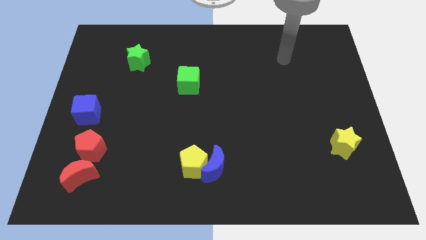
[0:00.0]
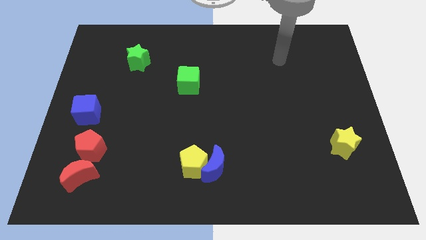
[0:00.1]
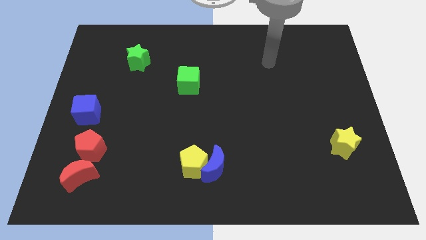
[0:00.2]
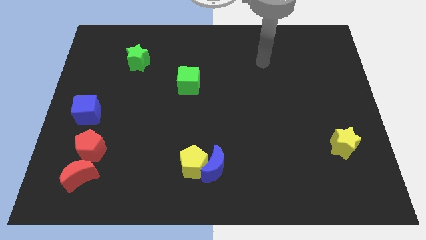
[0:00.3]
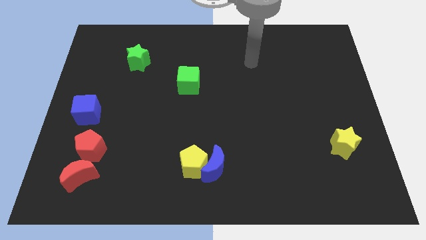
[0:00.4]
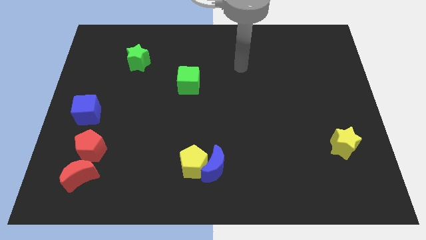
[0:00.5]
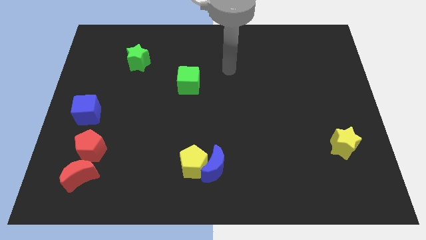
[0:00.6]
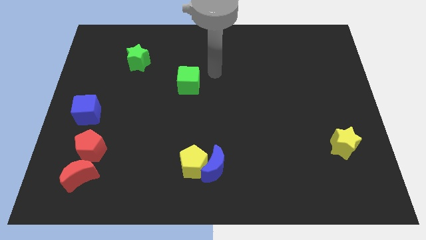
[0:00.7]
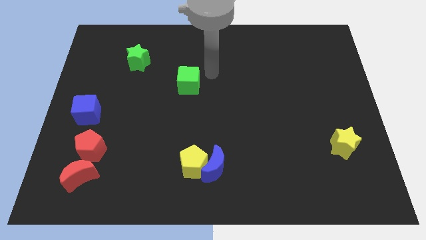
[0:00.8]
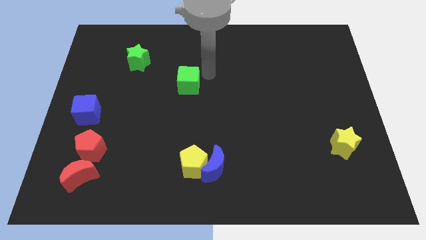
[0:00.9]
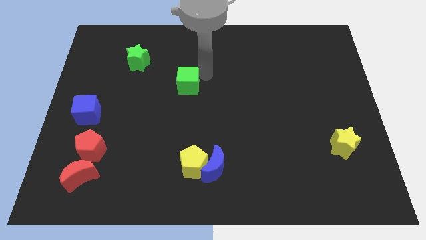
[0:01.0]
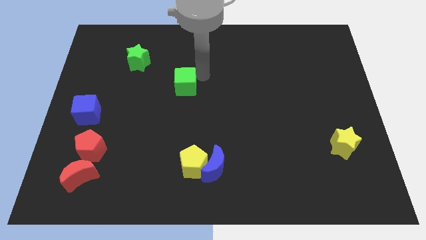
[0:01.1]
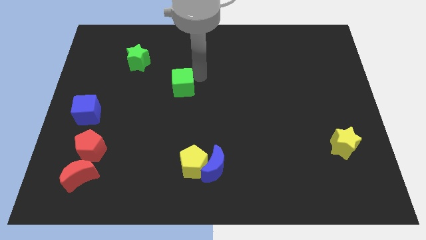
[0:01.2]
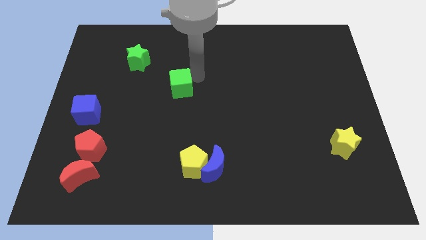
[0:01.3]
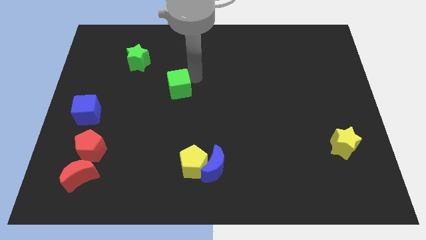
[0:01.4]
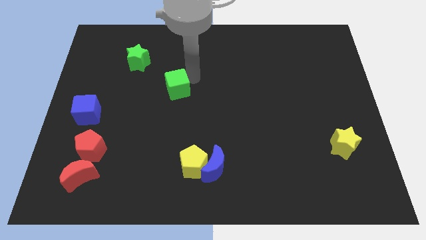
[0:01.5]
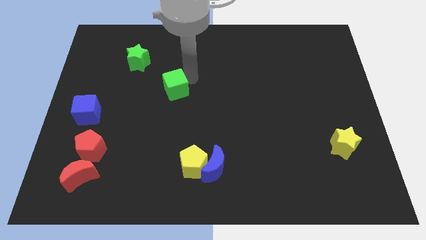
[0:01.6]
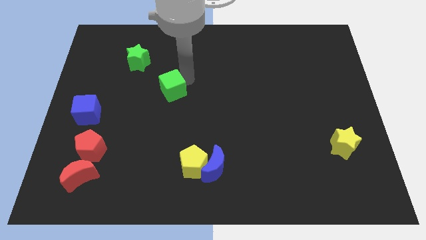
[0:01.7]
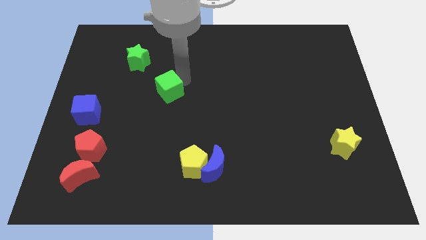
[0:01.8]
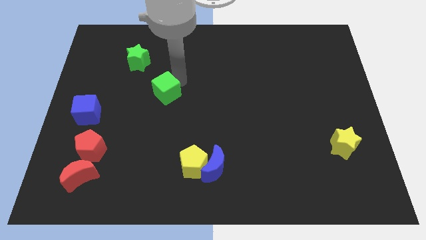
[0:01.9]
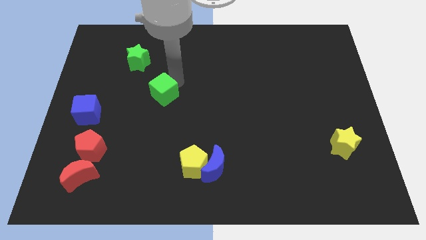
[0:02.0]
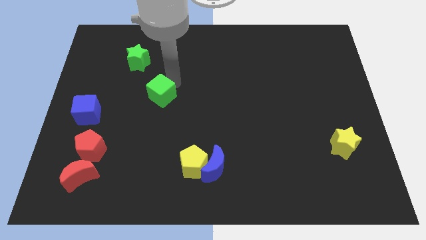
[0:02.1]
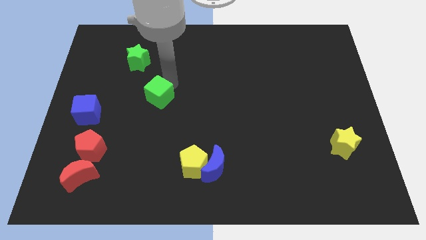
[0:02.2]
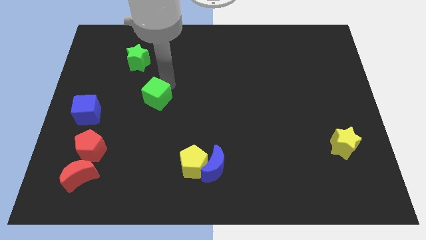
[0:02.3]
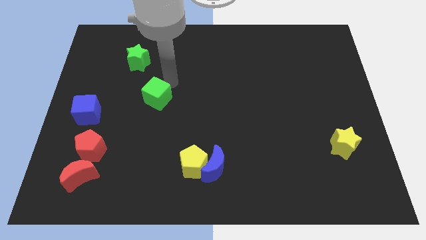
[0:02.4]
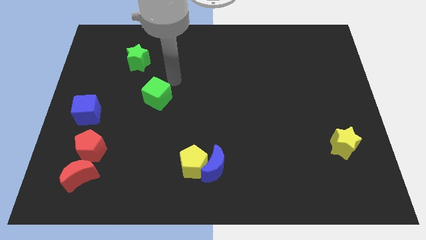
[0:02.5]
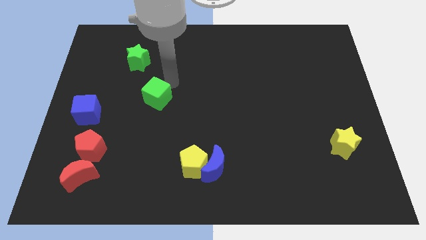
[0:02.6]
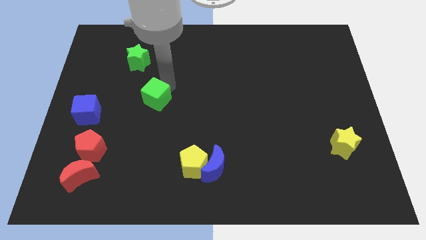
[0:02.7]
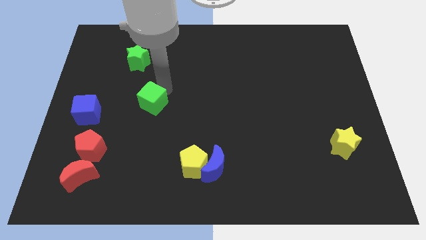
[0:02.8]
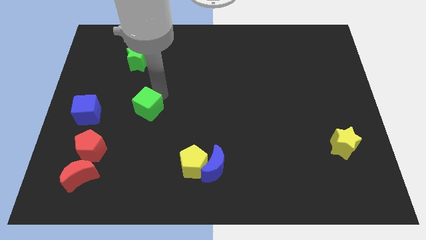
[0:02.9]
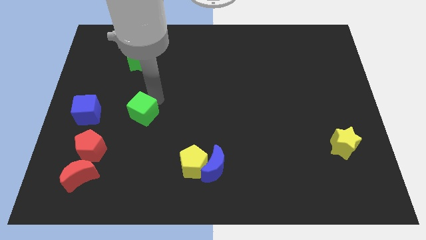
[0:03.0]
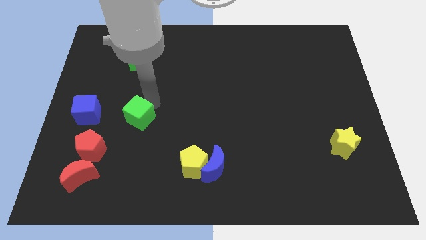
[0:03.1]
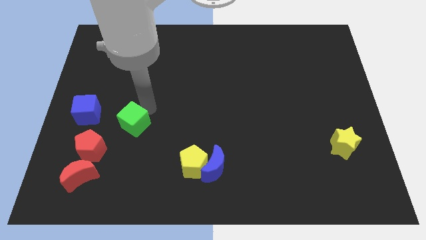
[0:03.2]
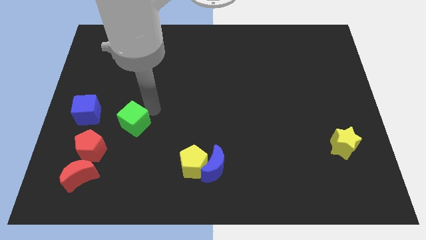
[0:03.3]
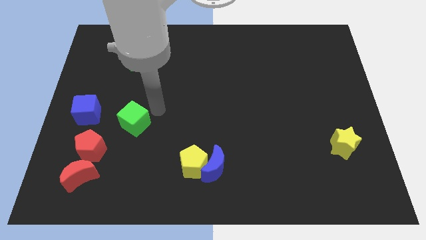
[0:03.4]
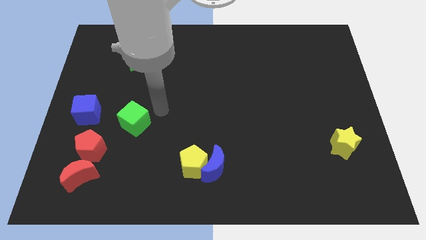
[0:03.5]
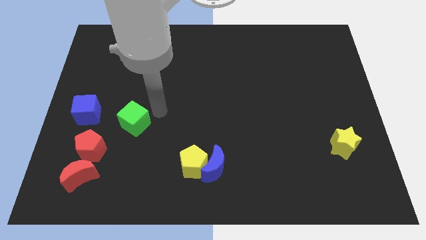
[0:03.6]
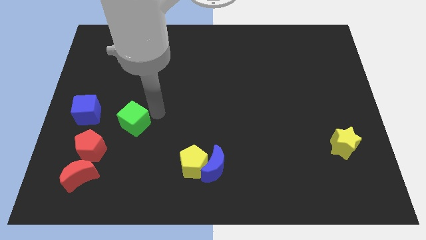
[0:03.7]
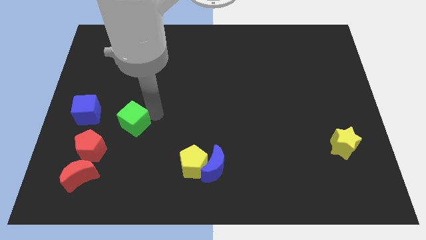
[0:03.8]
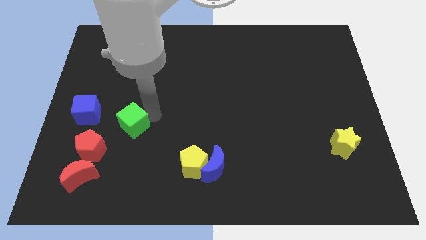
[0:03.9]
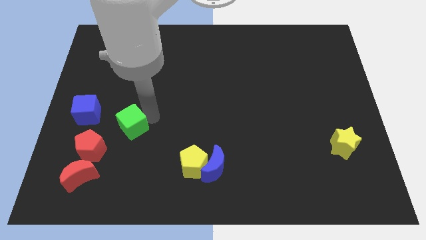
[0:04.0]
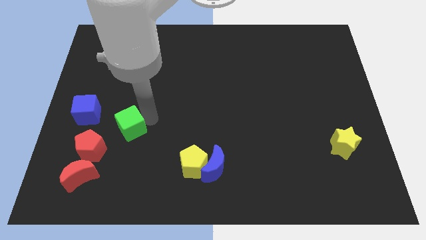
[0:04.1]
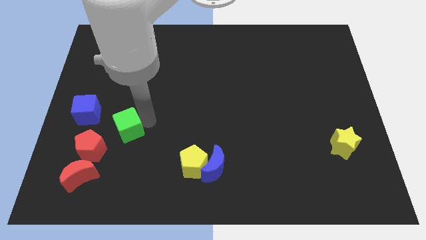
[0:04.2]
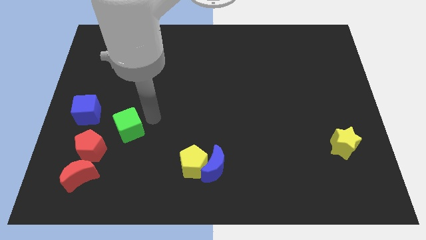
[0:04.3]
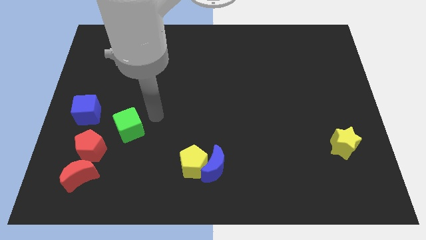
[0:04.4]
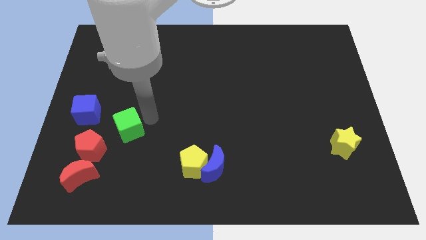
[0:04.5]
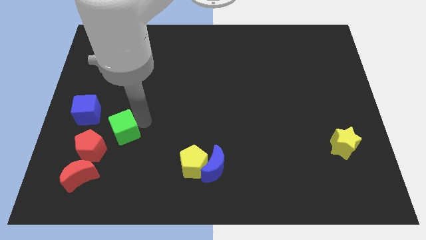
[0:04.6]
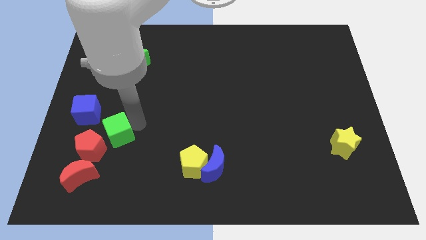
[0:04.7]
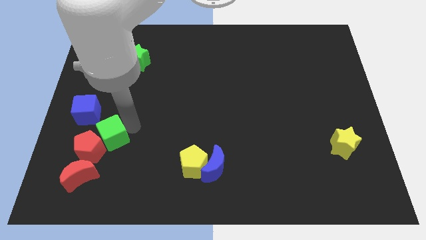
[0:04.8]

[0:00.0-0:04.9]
move the green cube to the red pentagon

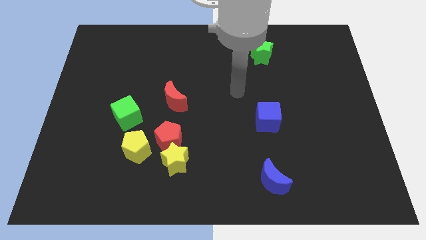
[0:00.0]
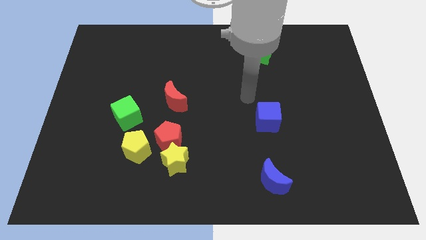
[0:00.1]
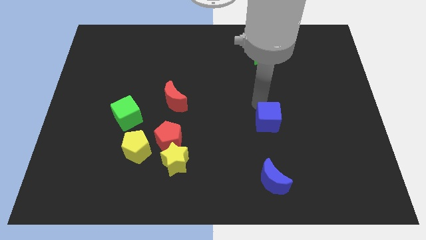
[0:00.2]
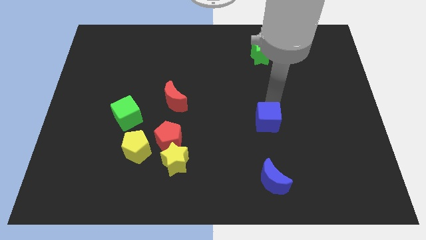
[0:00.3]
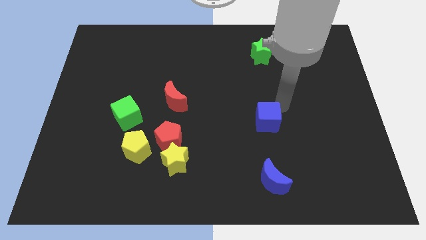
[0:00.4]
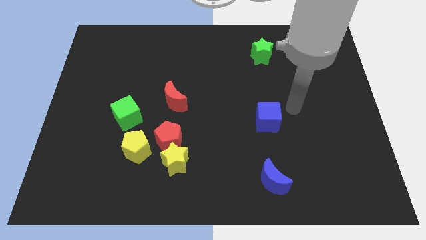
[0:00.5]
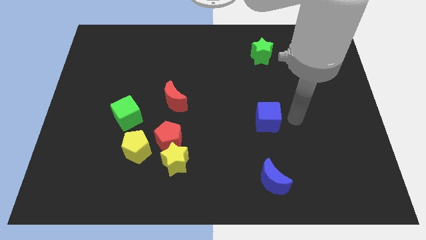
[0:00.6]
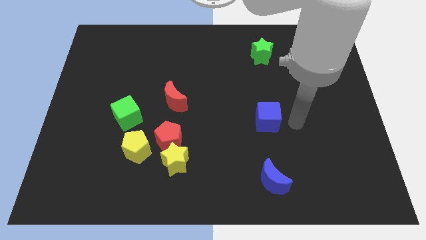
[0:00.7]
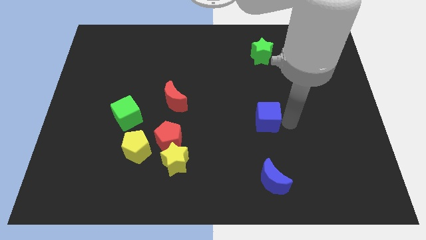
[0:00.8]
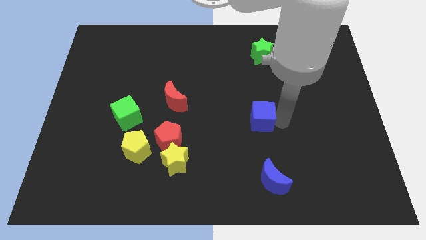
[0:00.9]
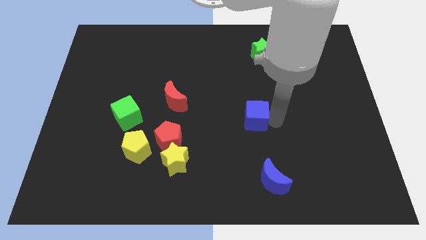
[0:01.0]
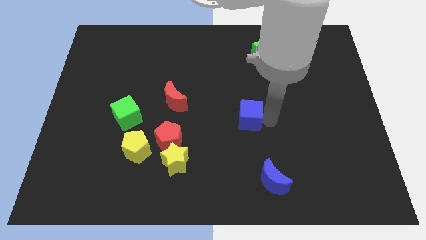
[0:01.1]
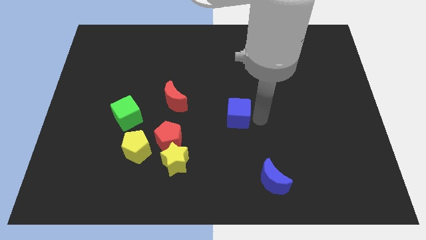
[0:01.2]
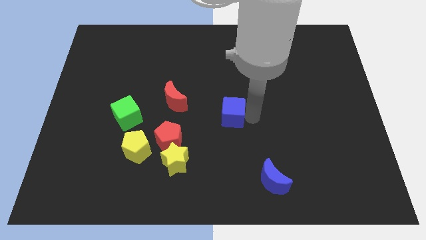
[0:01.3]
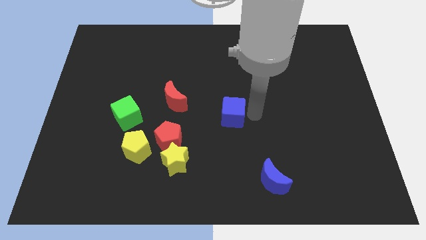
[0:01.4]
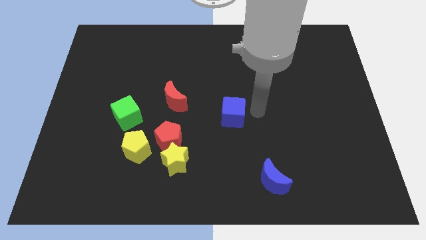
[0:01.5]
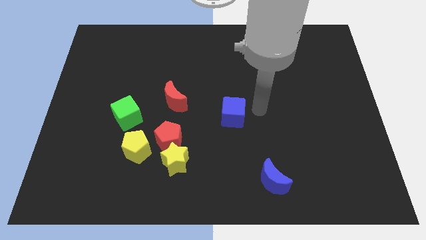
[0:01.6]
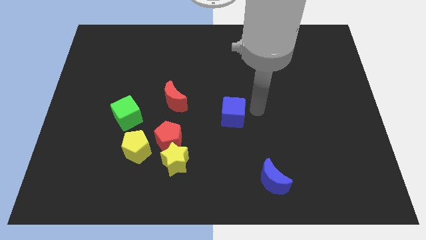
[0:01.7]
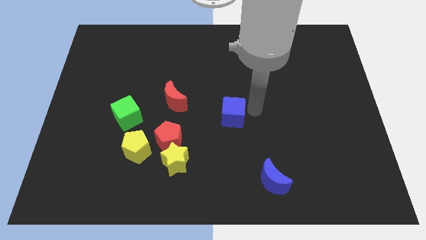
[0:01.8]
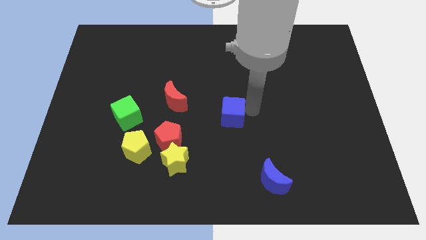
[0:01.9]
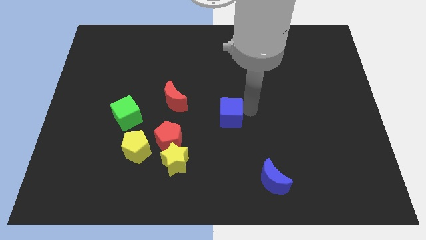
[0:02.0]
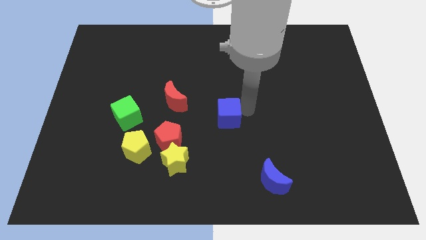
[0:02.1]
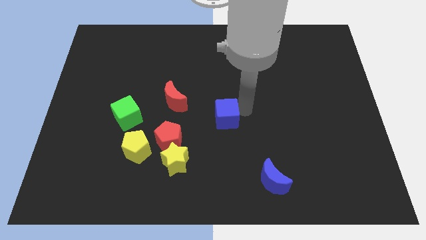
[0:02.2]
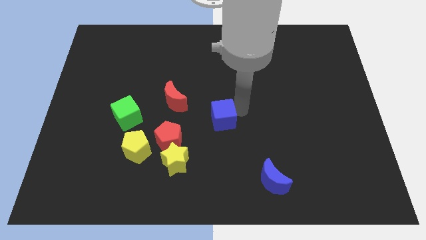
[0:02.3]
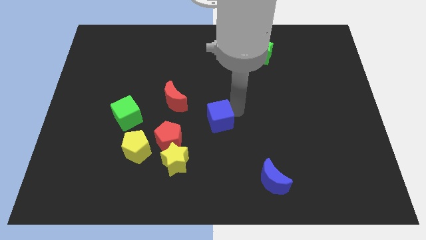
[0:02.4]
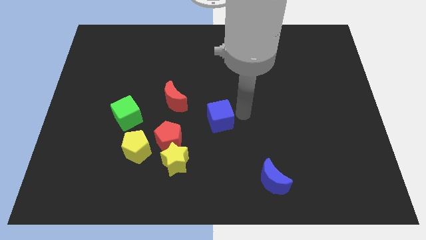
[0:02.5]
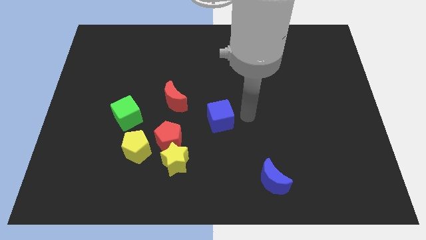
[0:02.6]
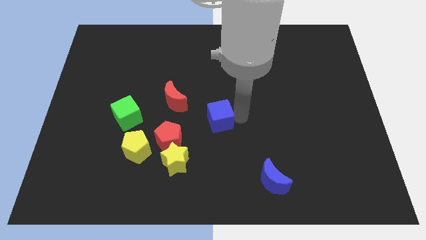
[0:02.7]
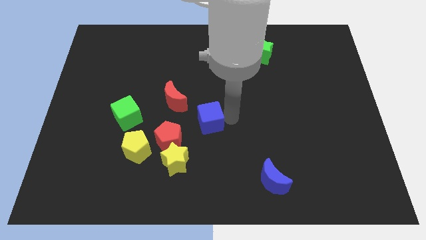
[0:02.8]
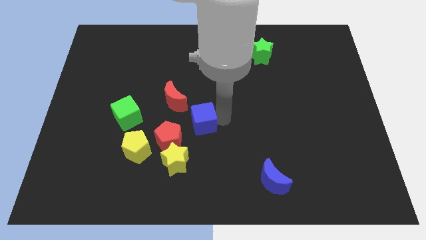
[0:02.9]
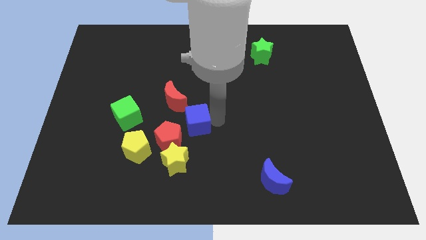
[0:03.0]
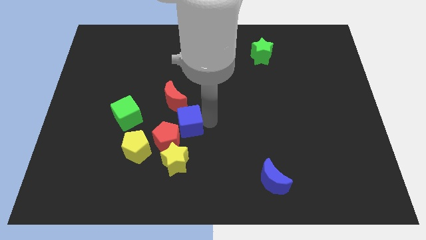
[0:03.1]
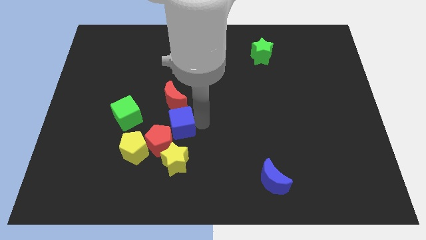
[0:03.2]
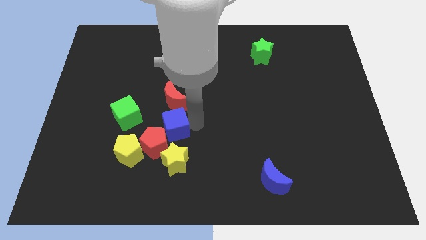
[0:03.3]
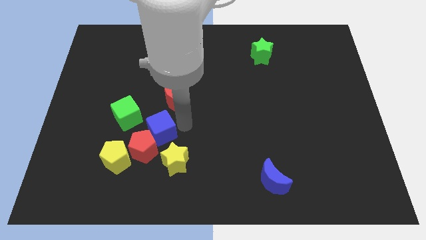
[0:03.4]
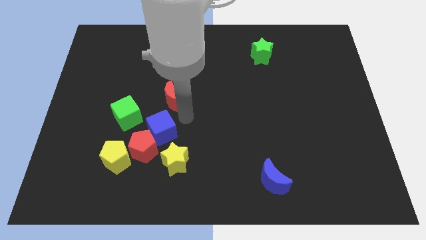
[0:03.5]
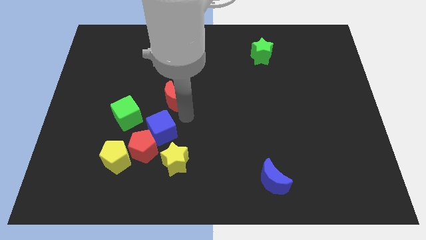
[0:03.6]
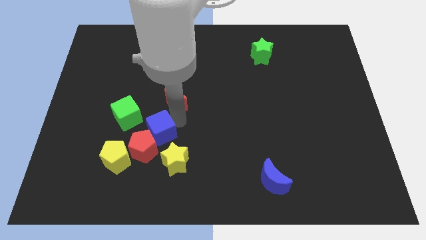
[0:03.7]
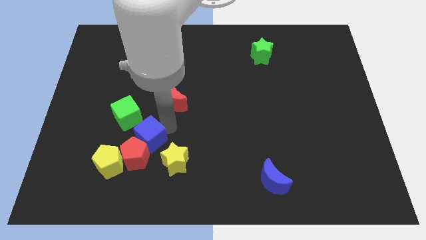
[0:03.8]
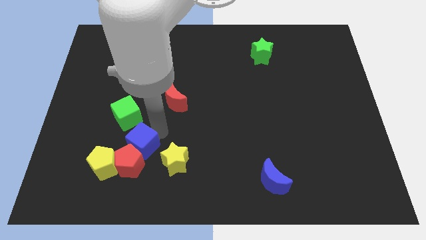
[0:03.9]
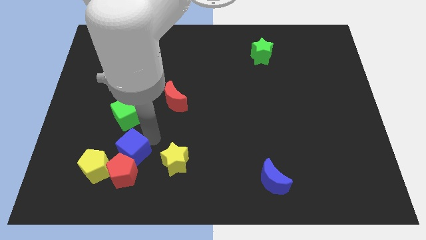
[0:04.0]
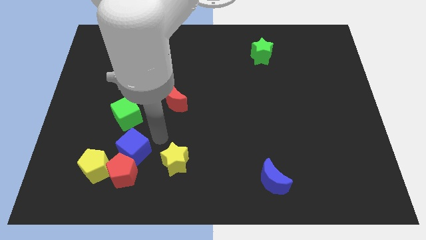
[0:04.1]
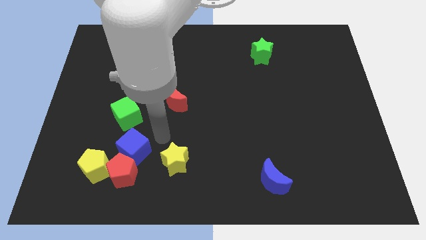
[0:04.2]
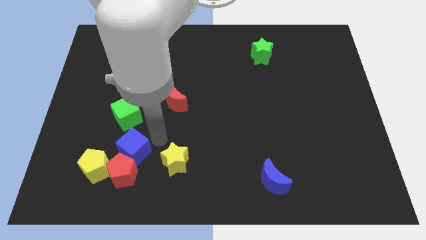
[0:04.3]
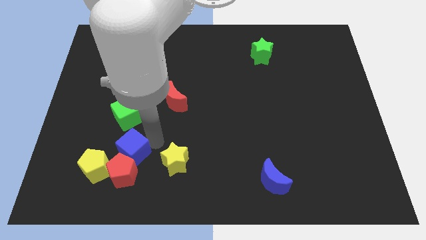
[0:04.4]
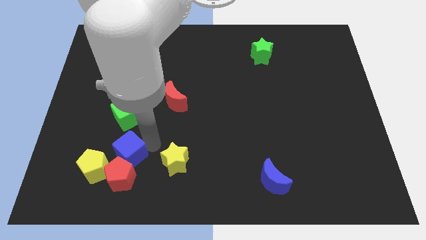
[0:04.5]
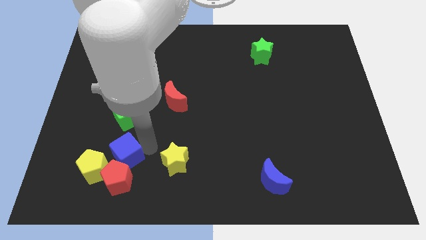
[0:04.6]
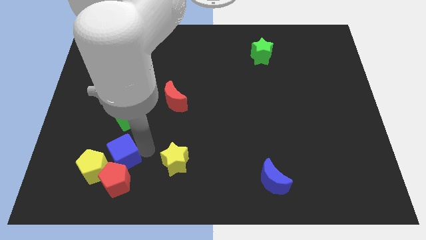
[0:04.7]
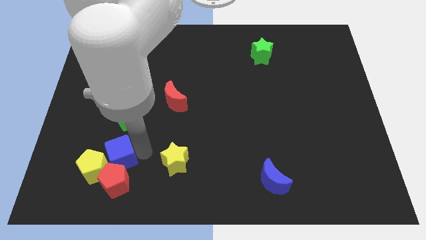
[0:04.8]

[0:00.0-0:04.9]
put the blue cube towards the yellow pentagon
